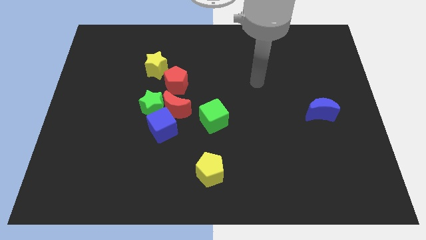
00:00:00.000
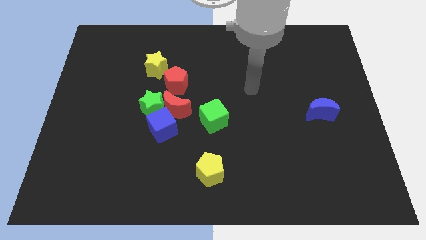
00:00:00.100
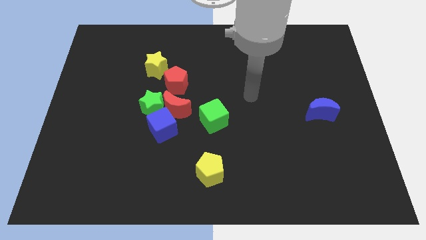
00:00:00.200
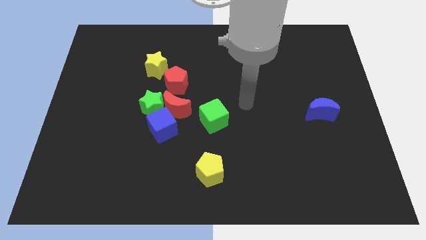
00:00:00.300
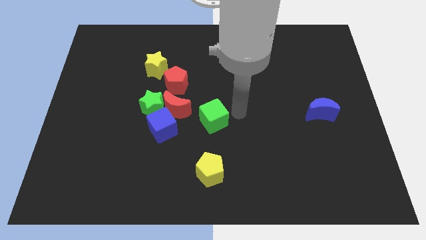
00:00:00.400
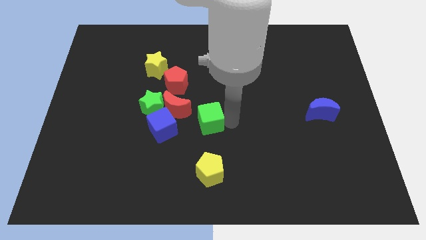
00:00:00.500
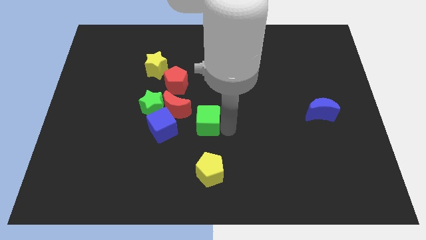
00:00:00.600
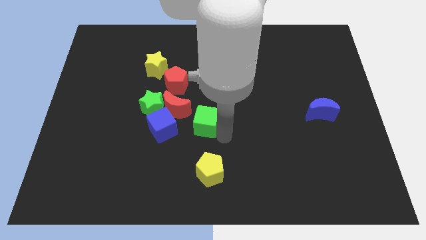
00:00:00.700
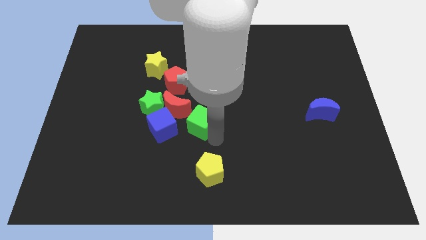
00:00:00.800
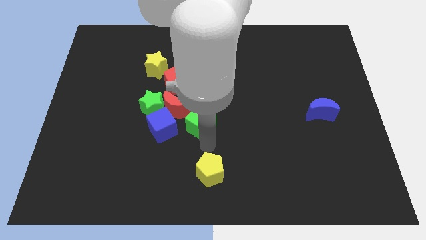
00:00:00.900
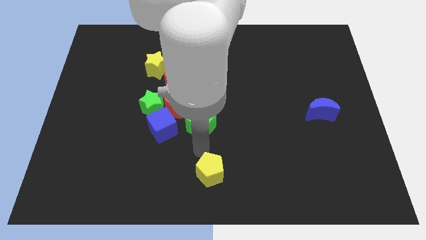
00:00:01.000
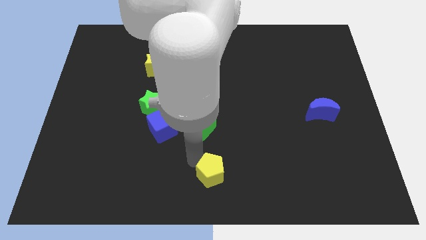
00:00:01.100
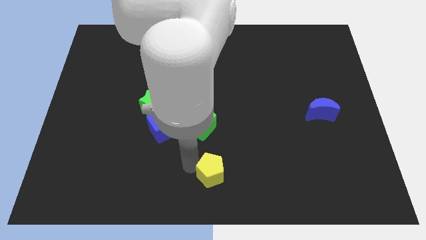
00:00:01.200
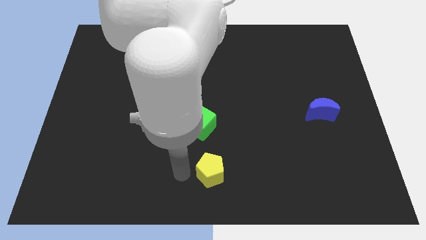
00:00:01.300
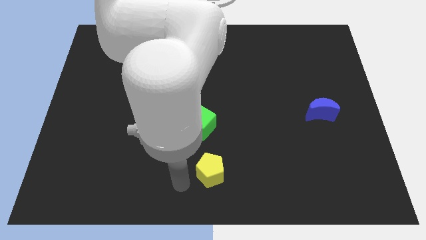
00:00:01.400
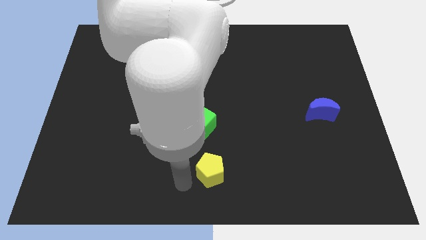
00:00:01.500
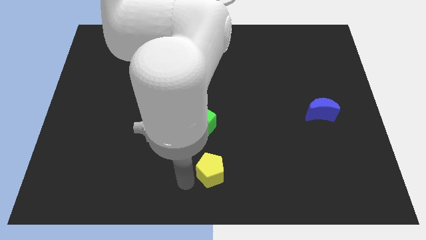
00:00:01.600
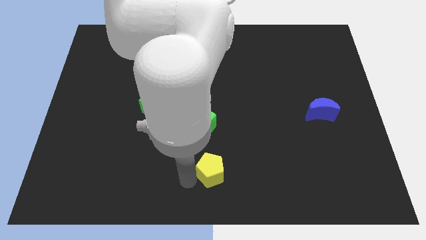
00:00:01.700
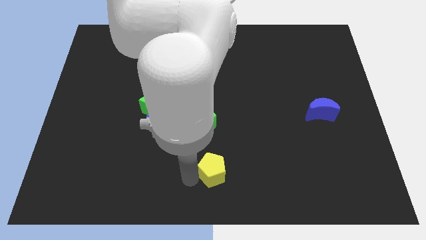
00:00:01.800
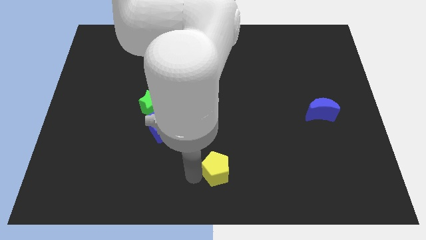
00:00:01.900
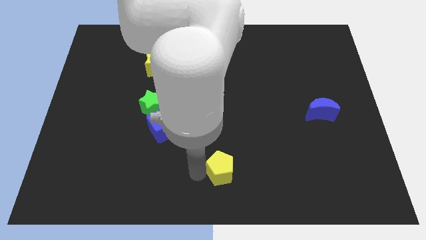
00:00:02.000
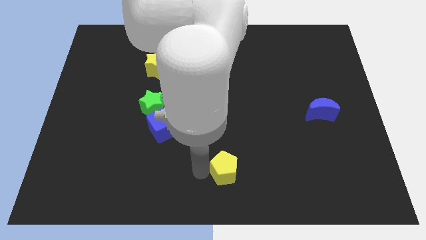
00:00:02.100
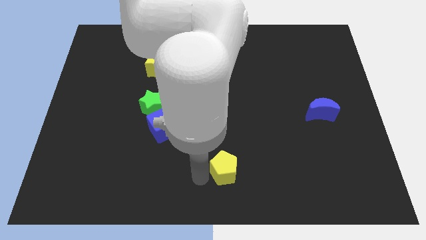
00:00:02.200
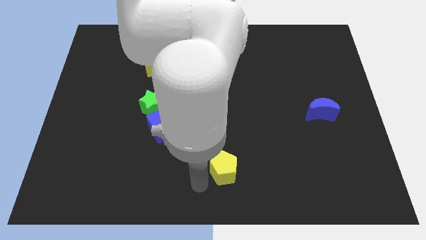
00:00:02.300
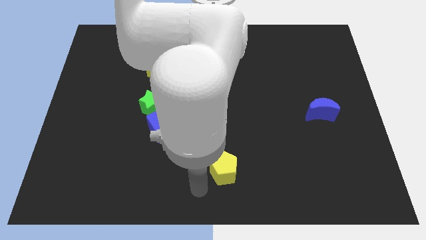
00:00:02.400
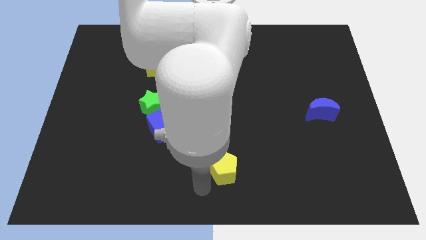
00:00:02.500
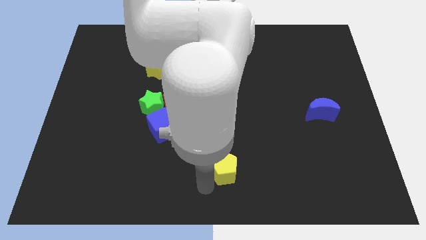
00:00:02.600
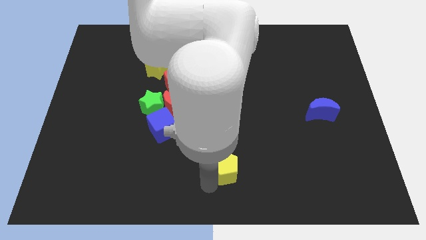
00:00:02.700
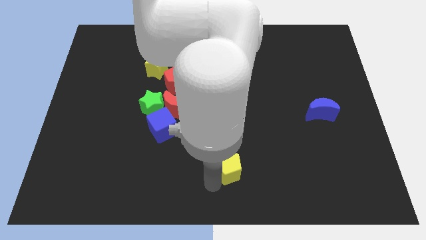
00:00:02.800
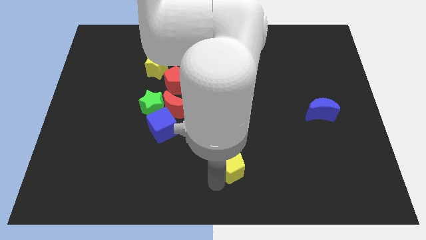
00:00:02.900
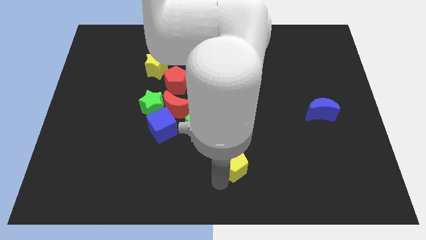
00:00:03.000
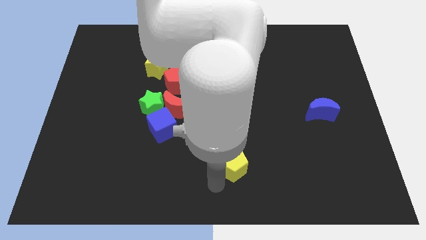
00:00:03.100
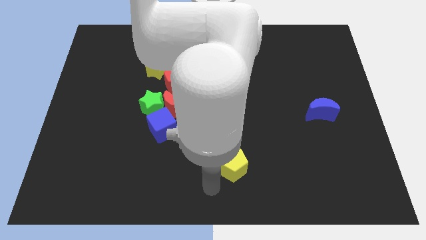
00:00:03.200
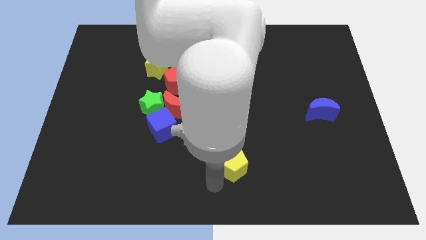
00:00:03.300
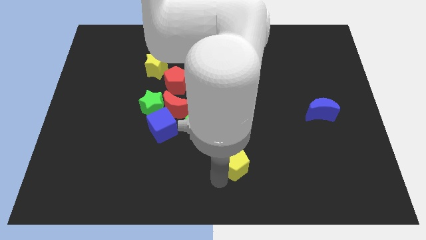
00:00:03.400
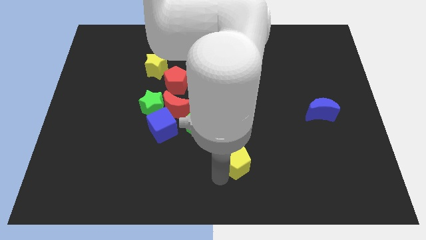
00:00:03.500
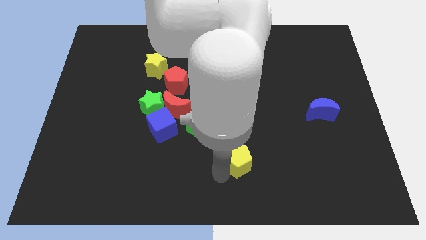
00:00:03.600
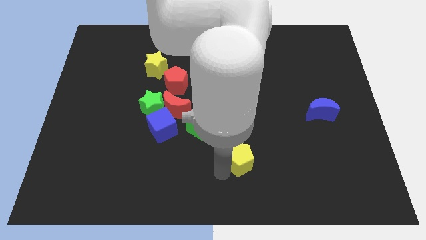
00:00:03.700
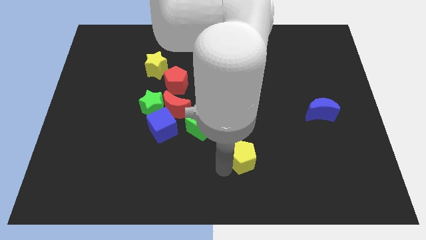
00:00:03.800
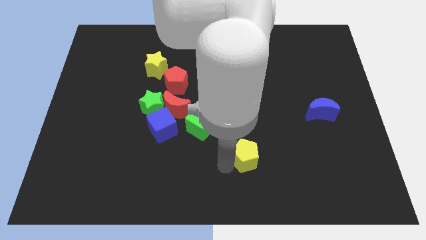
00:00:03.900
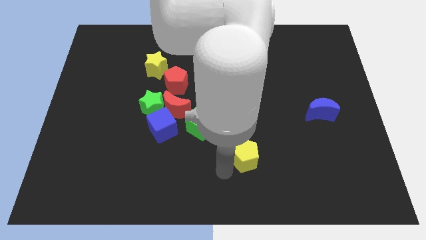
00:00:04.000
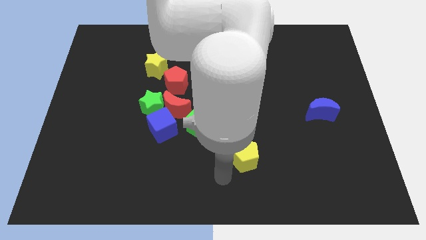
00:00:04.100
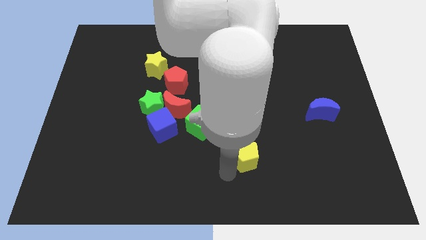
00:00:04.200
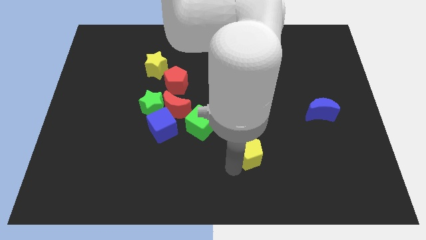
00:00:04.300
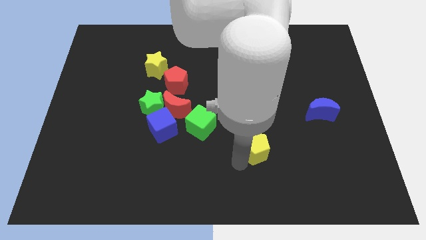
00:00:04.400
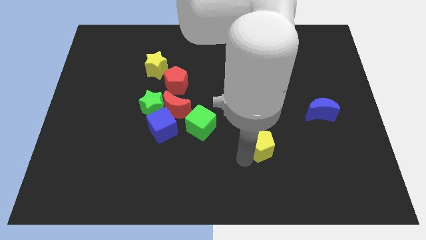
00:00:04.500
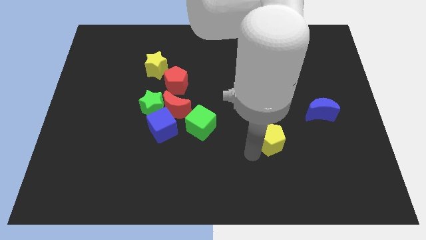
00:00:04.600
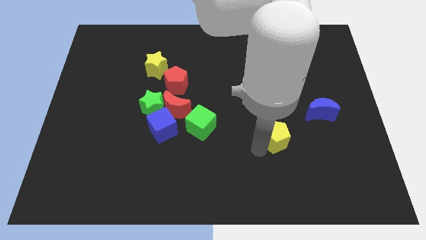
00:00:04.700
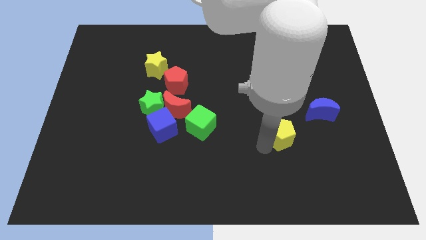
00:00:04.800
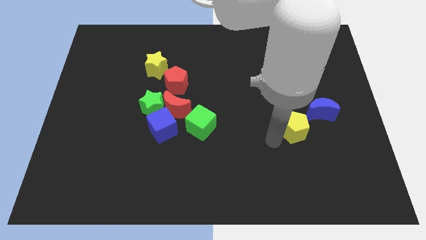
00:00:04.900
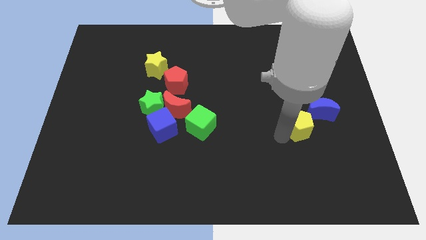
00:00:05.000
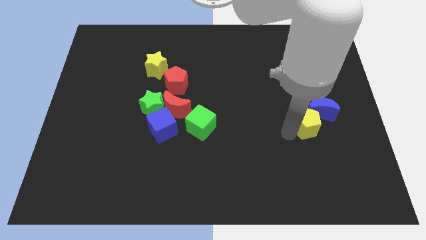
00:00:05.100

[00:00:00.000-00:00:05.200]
put the yellow pentagon next to the blue moon

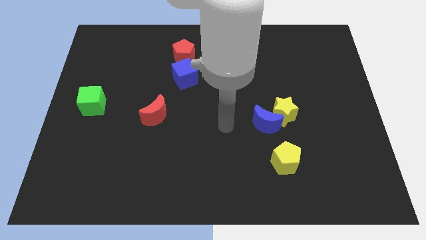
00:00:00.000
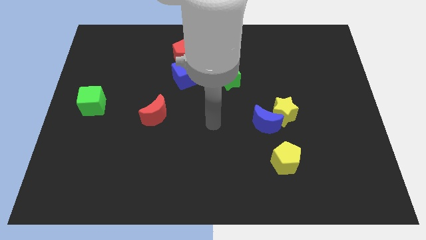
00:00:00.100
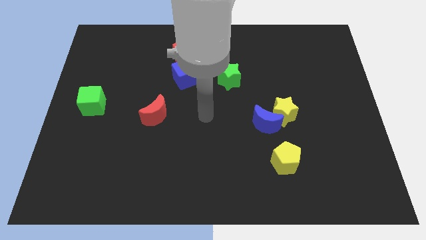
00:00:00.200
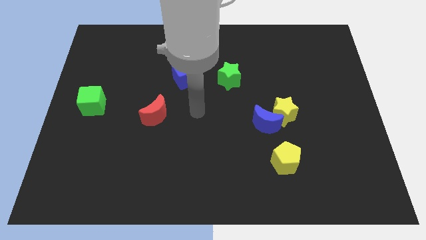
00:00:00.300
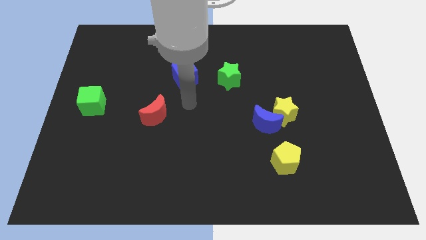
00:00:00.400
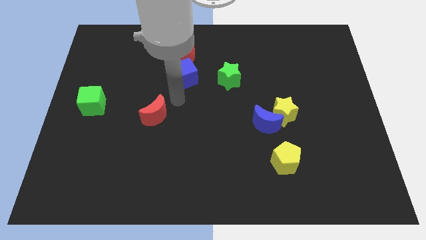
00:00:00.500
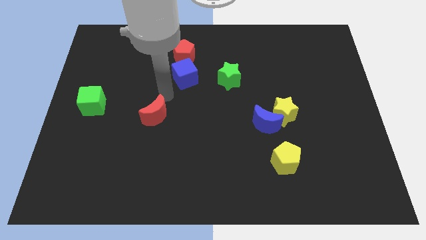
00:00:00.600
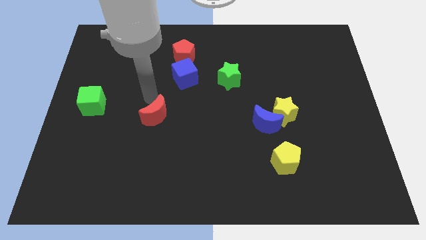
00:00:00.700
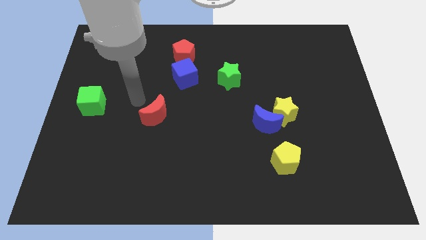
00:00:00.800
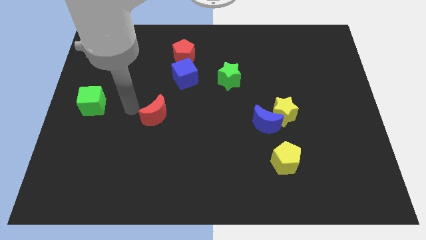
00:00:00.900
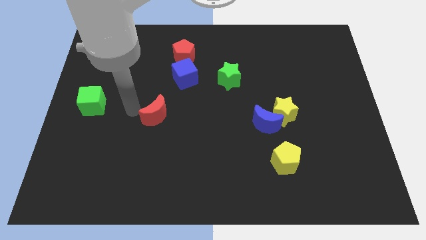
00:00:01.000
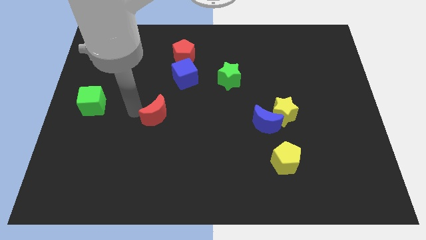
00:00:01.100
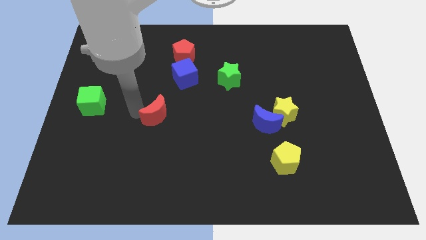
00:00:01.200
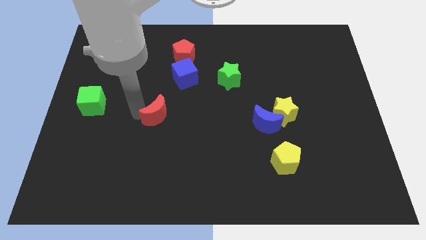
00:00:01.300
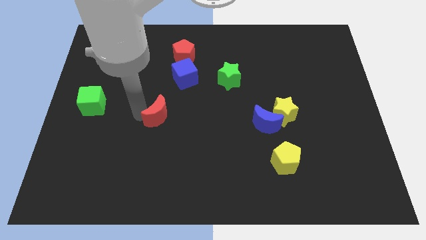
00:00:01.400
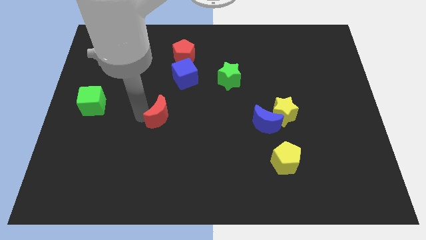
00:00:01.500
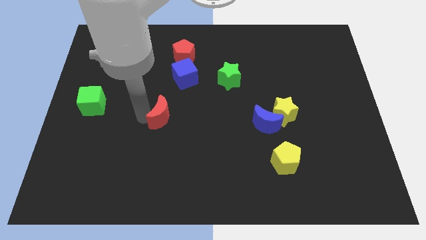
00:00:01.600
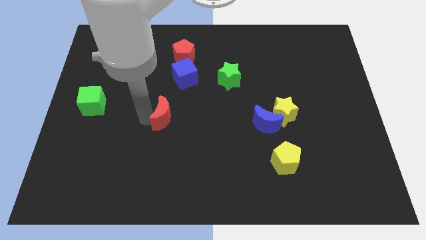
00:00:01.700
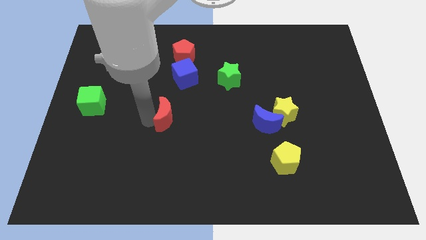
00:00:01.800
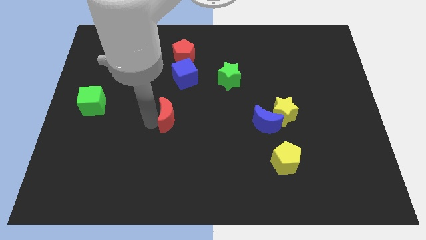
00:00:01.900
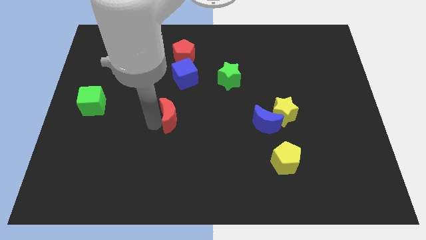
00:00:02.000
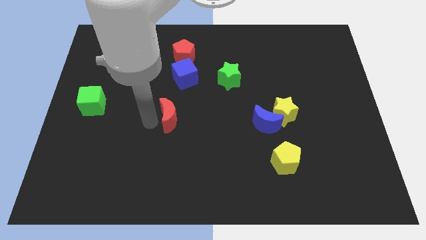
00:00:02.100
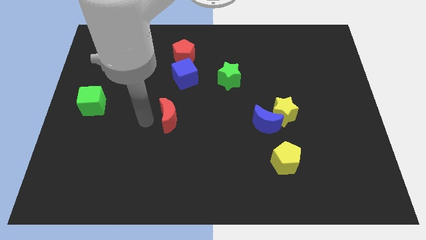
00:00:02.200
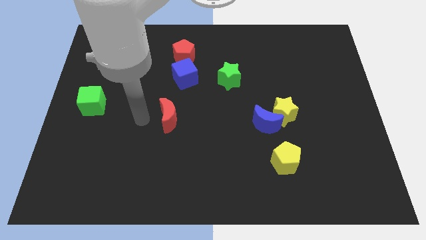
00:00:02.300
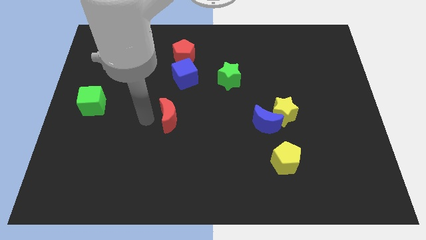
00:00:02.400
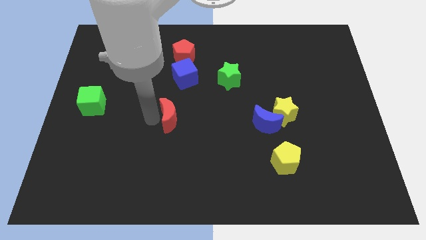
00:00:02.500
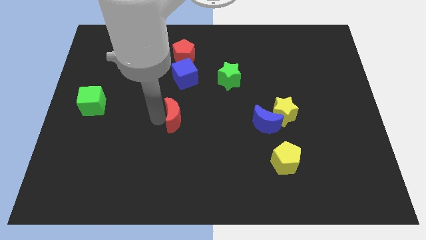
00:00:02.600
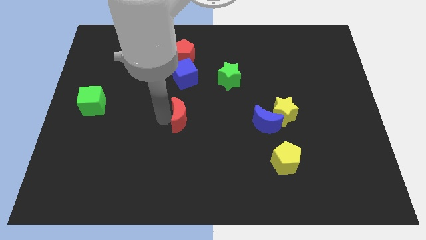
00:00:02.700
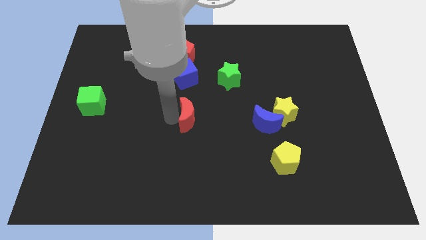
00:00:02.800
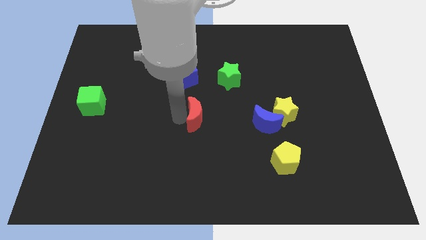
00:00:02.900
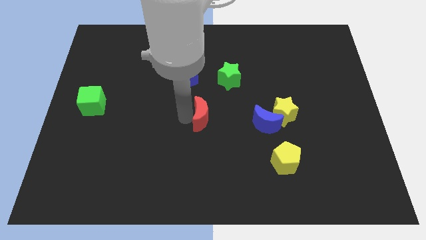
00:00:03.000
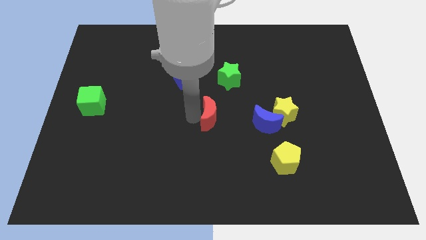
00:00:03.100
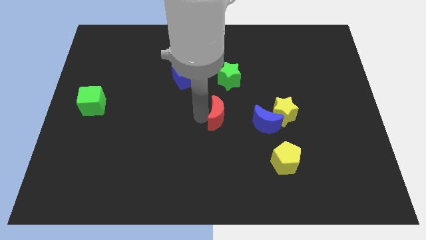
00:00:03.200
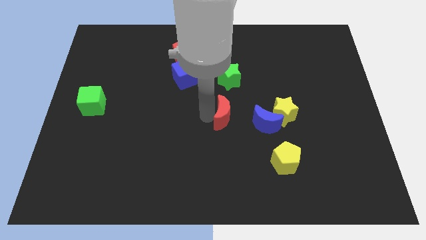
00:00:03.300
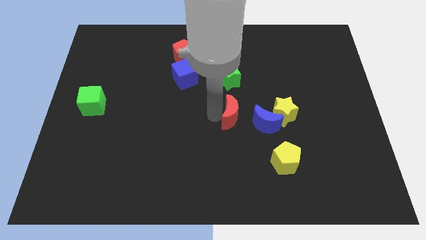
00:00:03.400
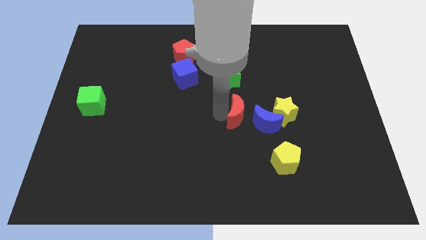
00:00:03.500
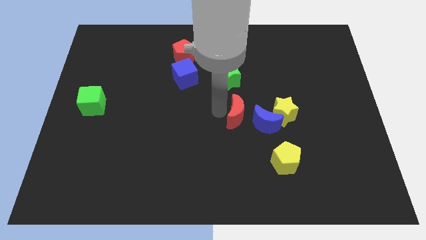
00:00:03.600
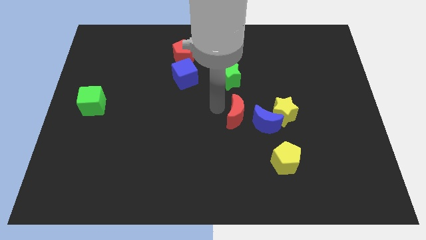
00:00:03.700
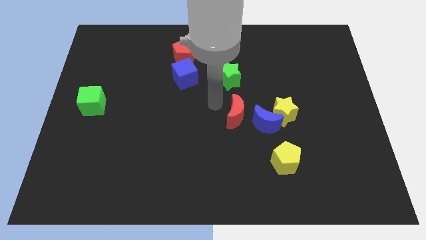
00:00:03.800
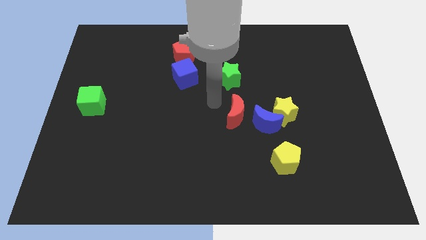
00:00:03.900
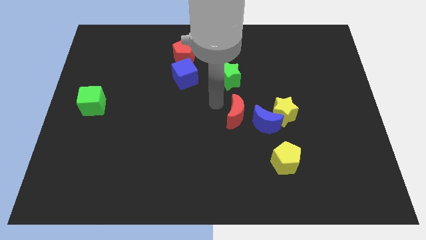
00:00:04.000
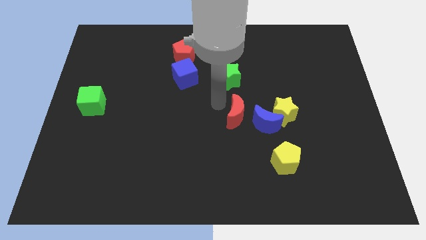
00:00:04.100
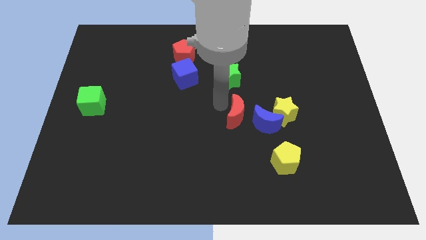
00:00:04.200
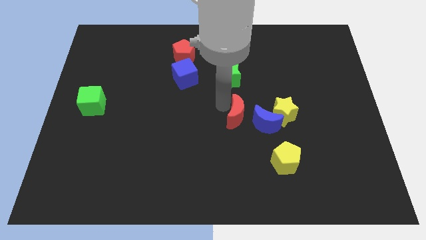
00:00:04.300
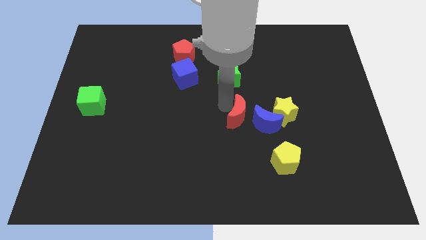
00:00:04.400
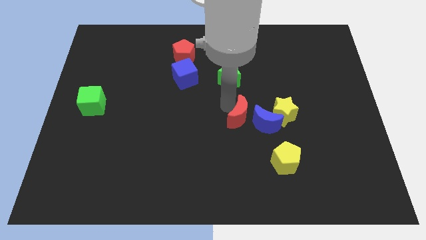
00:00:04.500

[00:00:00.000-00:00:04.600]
move the red moon close to the blue moon
